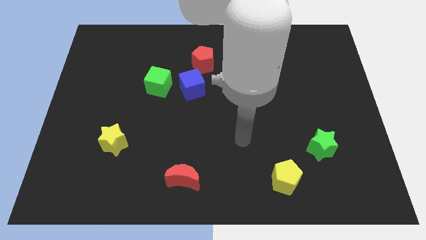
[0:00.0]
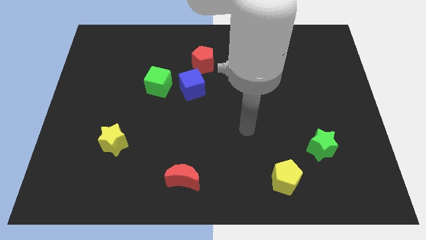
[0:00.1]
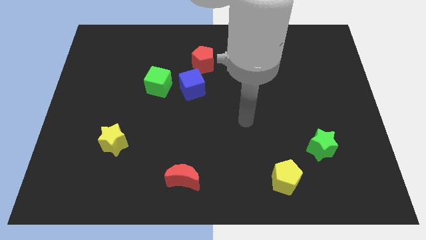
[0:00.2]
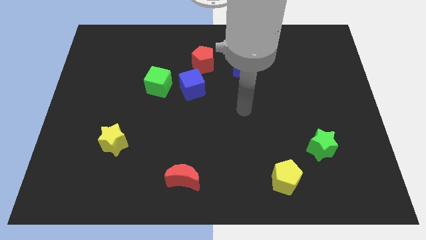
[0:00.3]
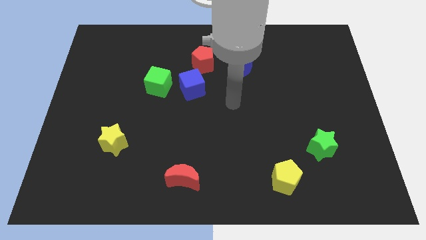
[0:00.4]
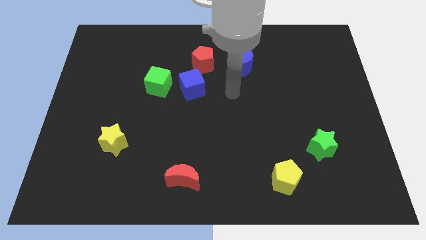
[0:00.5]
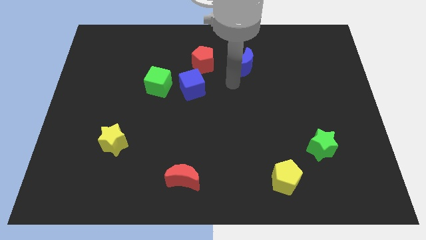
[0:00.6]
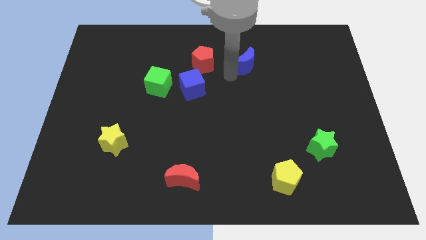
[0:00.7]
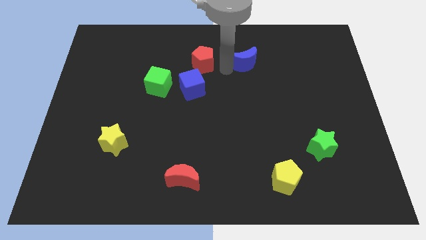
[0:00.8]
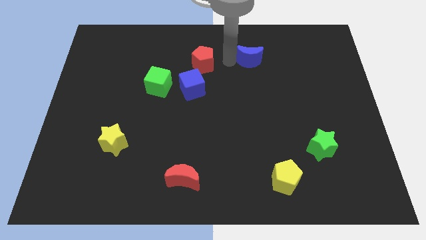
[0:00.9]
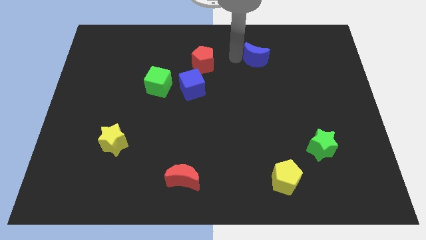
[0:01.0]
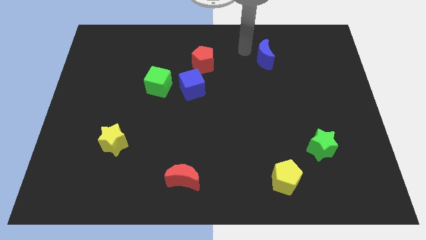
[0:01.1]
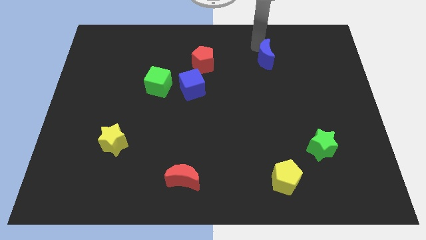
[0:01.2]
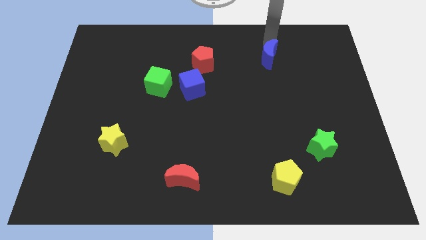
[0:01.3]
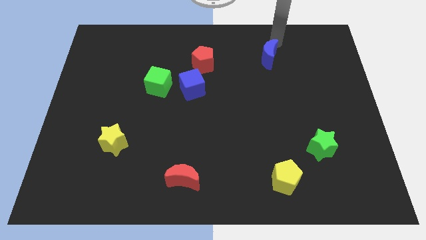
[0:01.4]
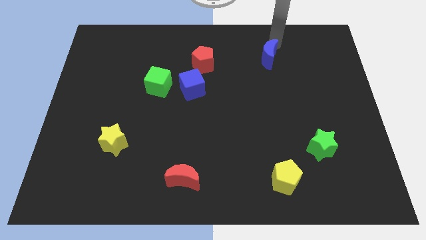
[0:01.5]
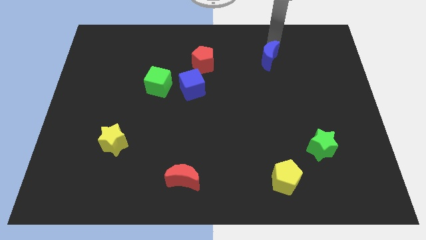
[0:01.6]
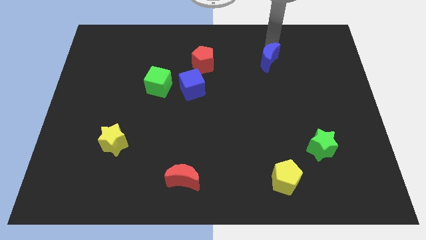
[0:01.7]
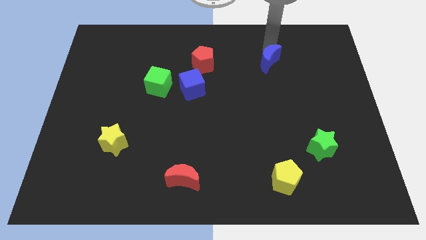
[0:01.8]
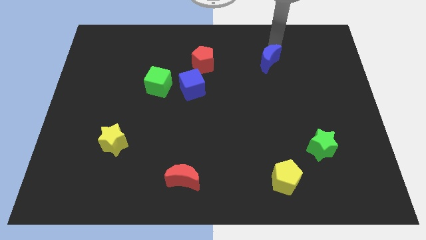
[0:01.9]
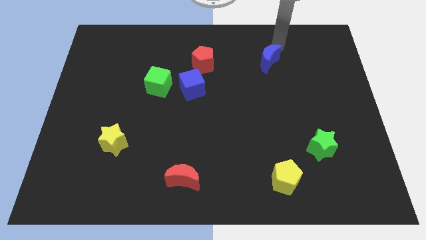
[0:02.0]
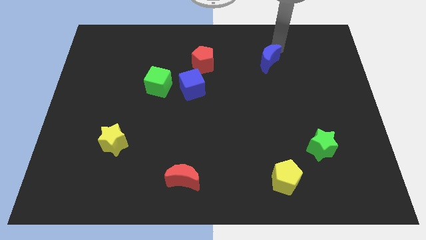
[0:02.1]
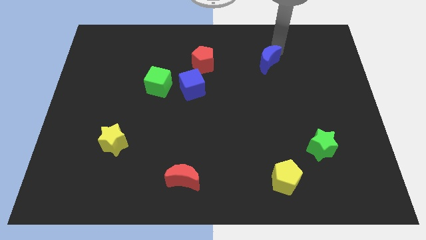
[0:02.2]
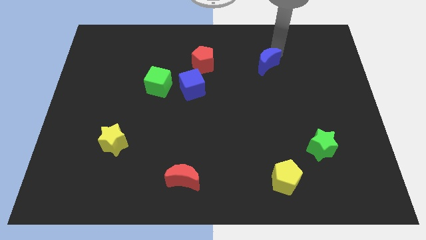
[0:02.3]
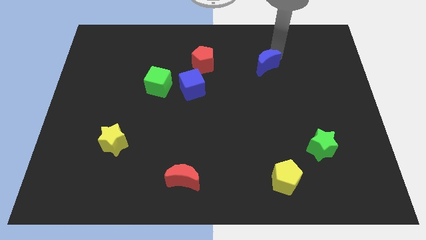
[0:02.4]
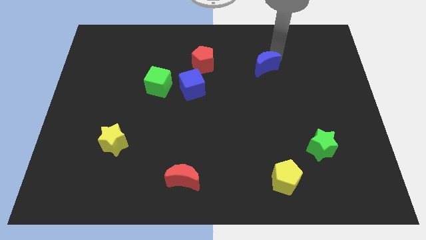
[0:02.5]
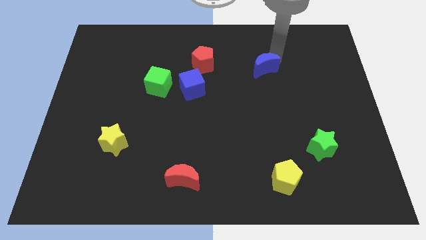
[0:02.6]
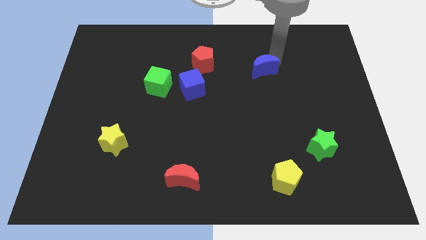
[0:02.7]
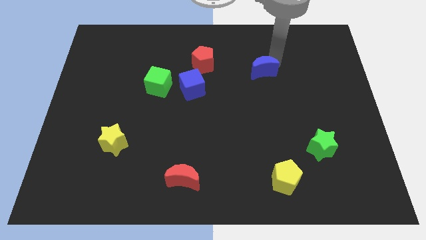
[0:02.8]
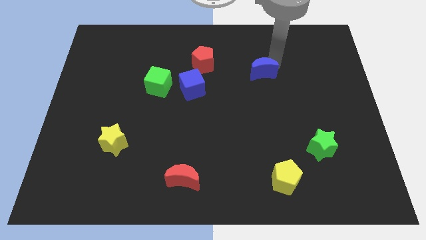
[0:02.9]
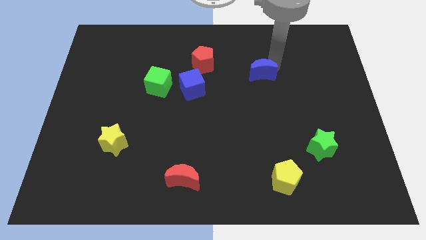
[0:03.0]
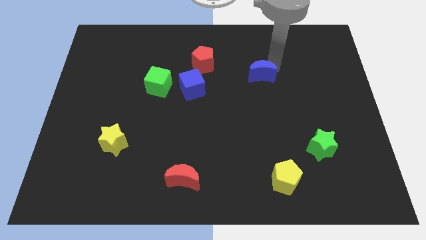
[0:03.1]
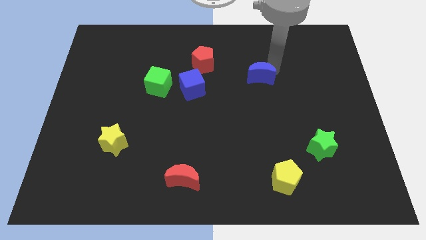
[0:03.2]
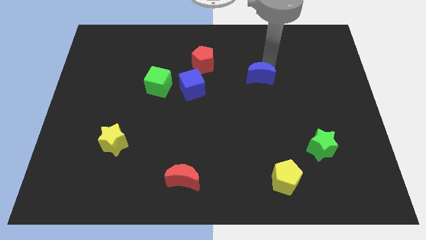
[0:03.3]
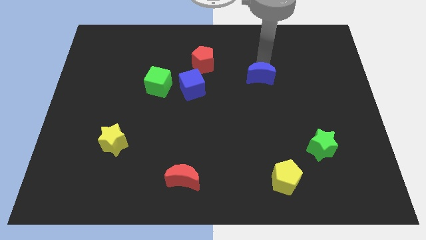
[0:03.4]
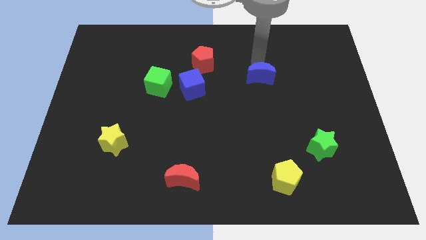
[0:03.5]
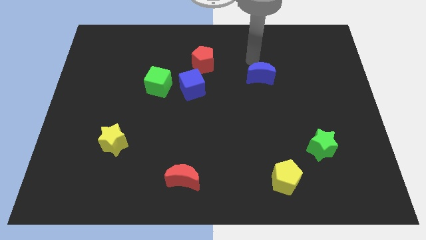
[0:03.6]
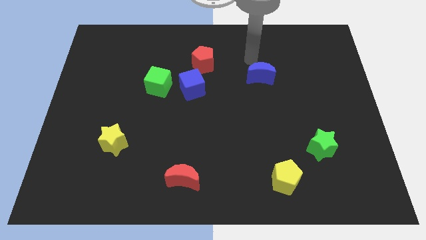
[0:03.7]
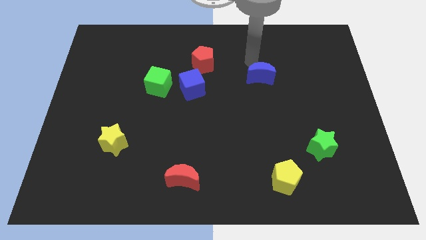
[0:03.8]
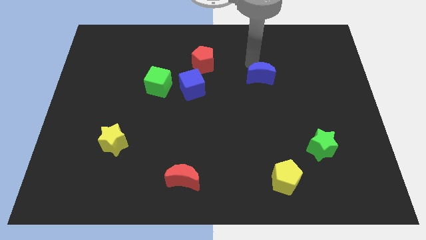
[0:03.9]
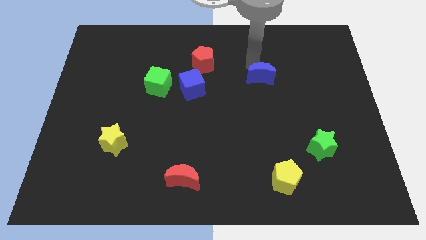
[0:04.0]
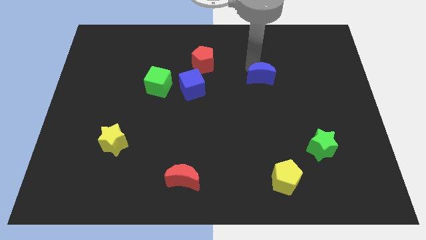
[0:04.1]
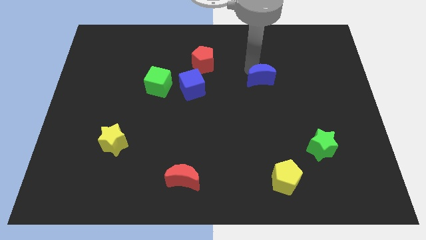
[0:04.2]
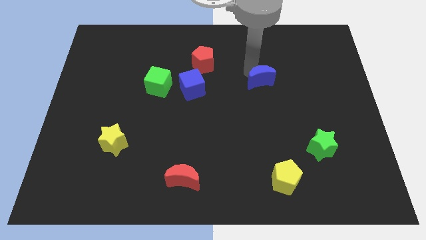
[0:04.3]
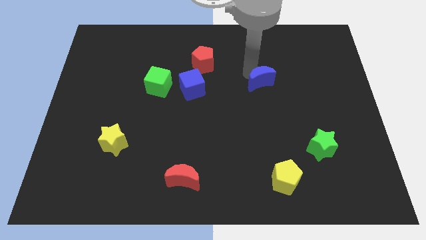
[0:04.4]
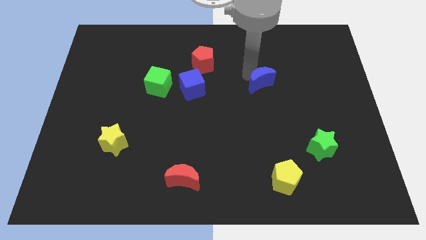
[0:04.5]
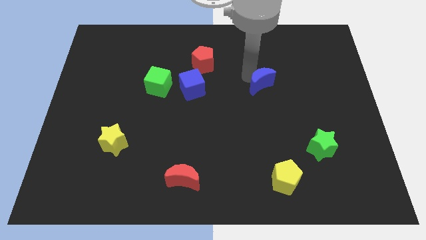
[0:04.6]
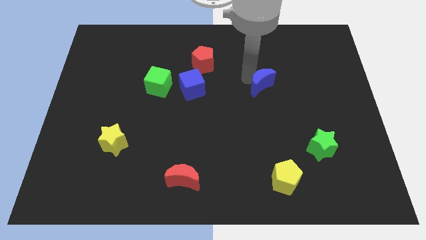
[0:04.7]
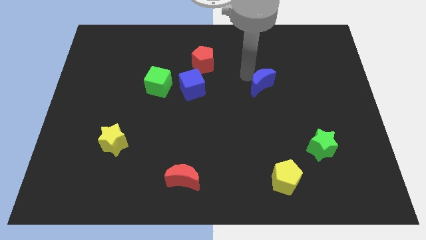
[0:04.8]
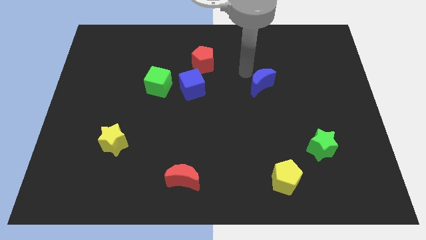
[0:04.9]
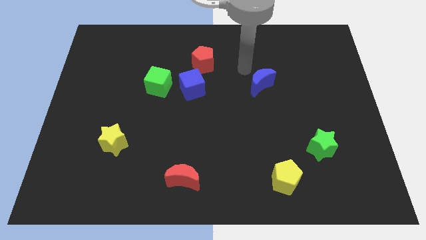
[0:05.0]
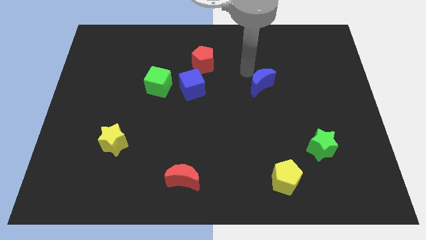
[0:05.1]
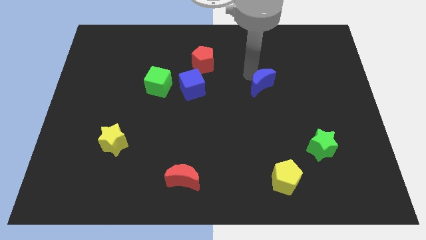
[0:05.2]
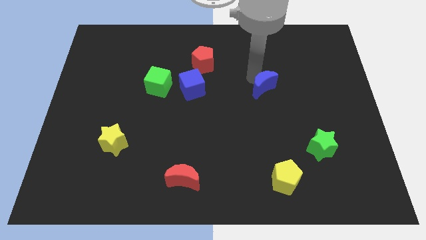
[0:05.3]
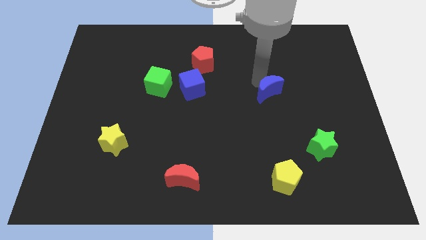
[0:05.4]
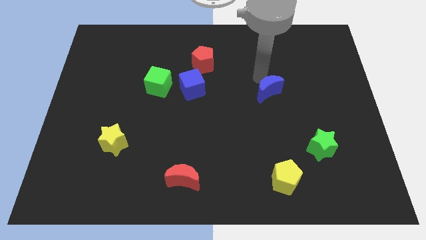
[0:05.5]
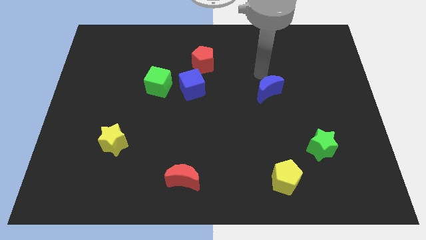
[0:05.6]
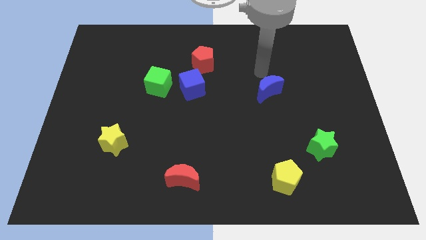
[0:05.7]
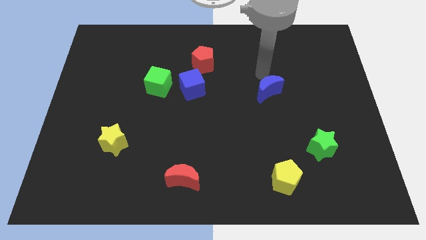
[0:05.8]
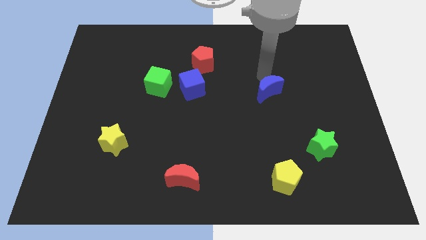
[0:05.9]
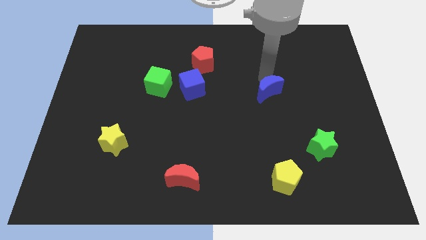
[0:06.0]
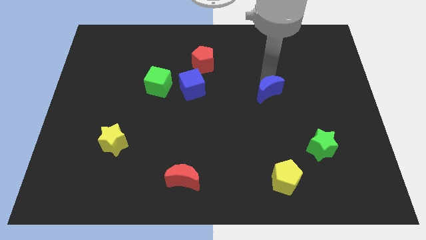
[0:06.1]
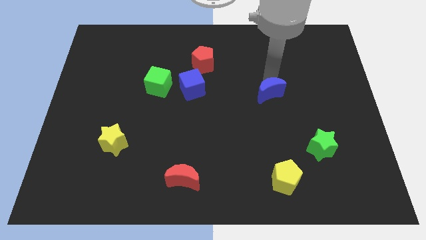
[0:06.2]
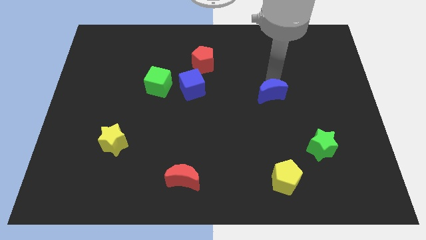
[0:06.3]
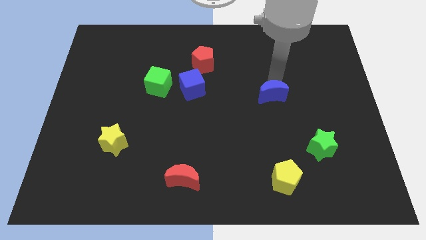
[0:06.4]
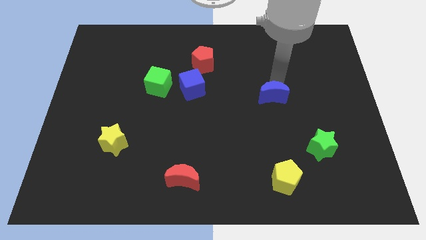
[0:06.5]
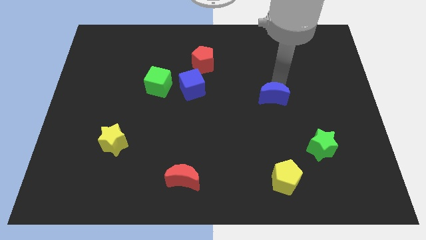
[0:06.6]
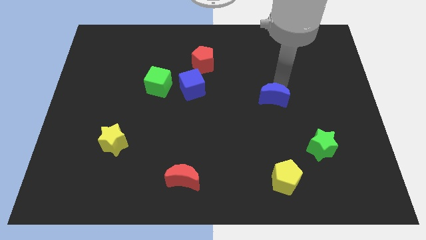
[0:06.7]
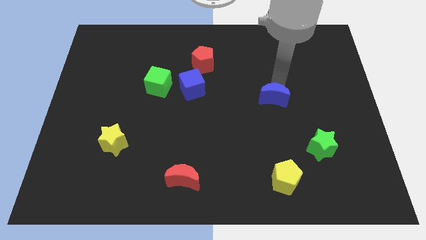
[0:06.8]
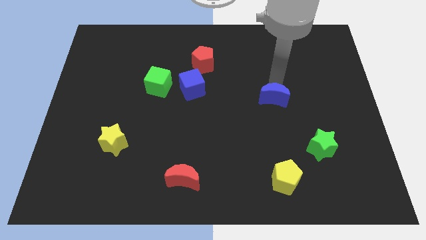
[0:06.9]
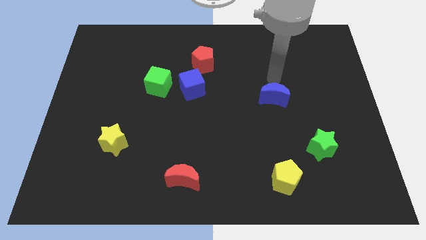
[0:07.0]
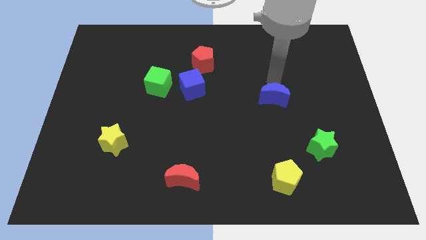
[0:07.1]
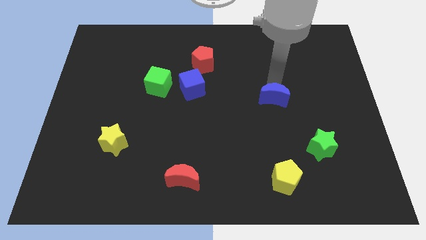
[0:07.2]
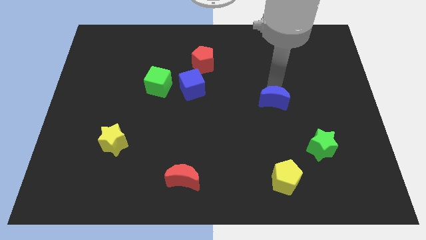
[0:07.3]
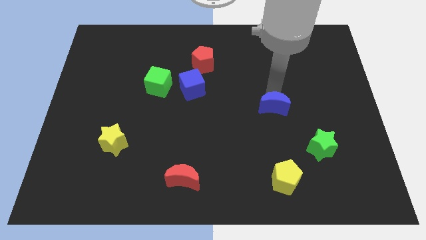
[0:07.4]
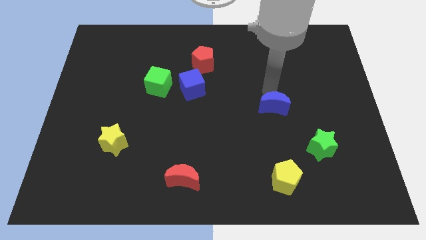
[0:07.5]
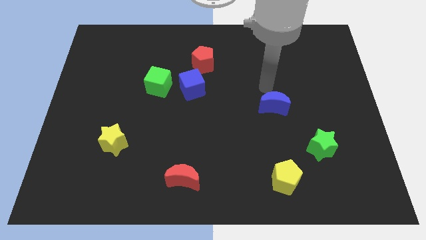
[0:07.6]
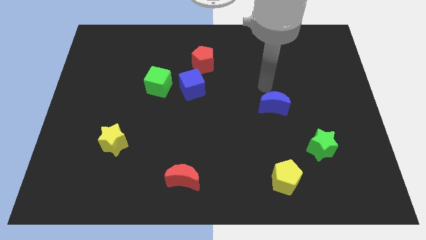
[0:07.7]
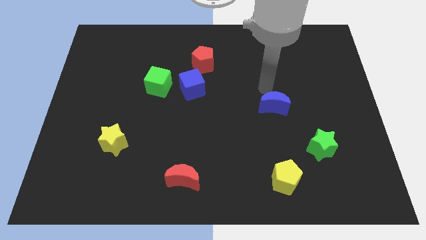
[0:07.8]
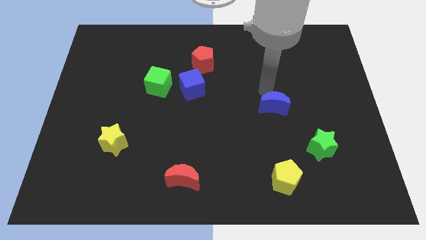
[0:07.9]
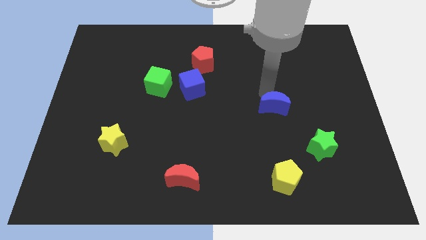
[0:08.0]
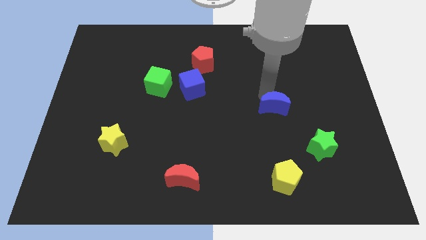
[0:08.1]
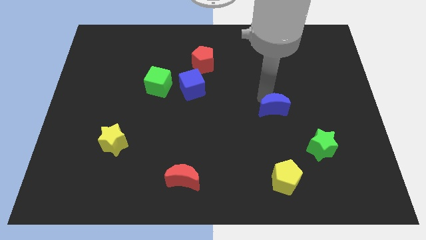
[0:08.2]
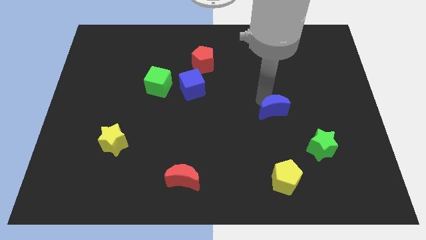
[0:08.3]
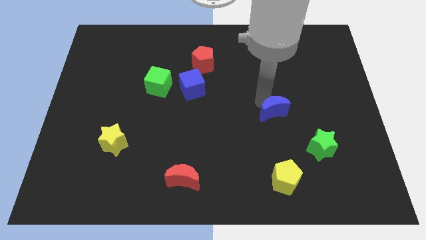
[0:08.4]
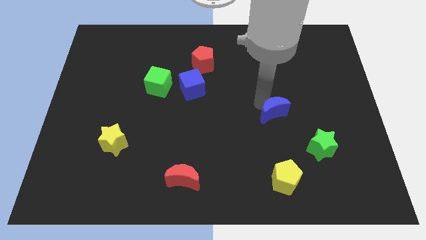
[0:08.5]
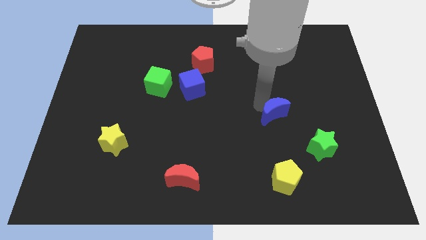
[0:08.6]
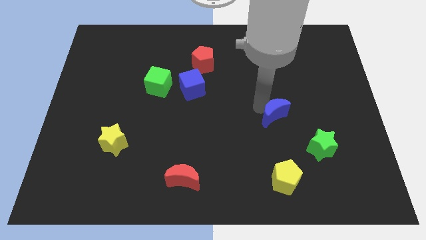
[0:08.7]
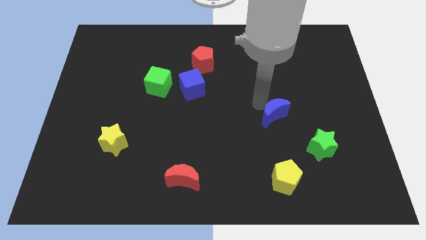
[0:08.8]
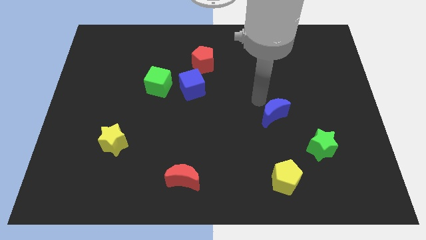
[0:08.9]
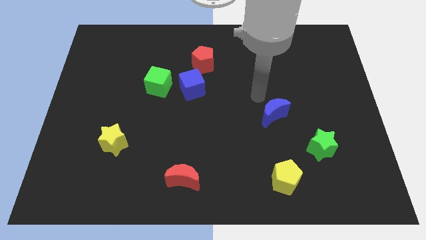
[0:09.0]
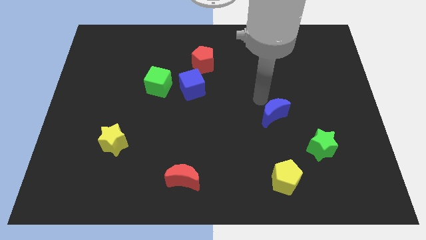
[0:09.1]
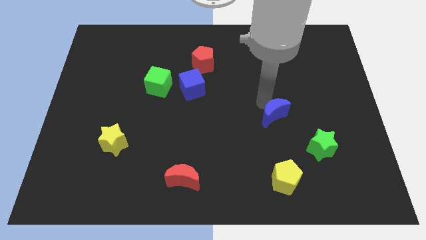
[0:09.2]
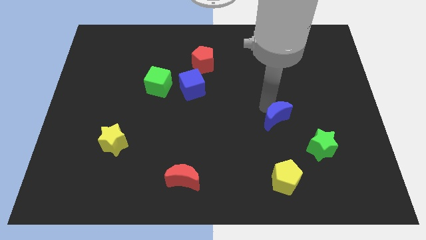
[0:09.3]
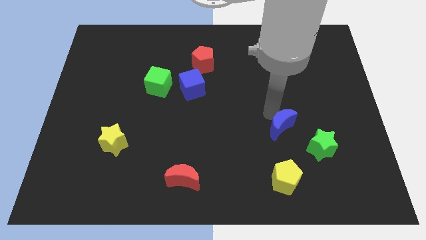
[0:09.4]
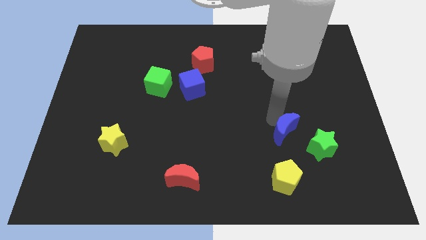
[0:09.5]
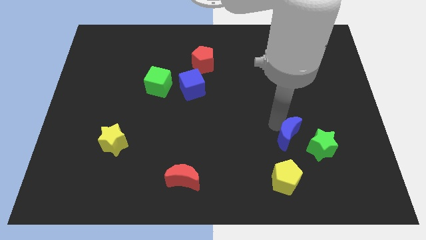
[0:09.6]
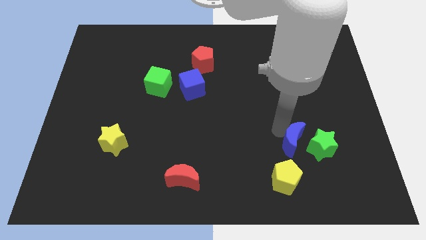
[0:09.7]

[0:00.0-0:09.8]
slide the blue moon towards the green star
